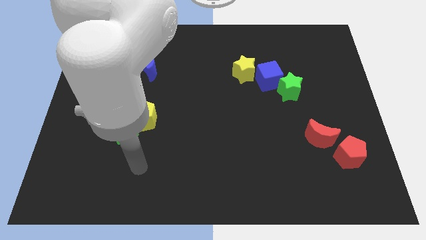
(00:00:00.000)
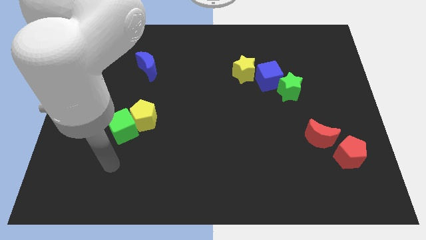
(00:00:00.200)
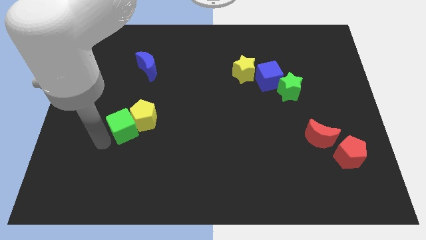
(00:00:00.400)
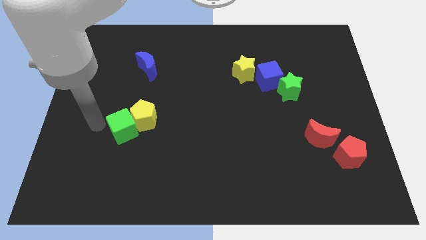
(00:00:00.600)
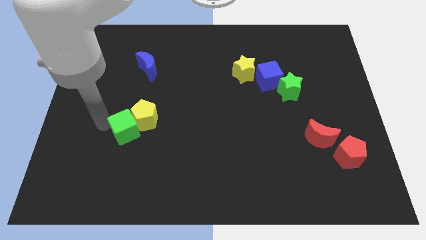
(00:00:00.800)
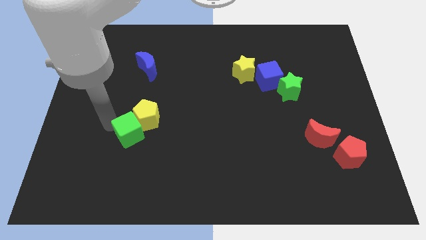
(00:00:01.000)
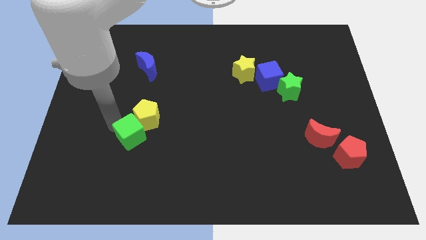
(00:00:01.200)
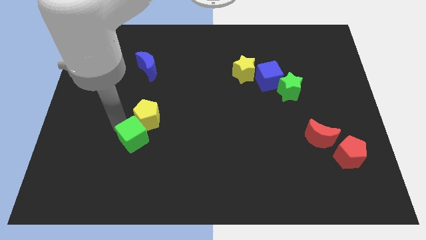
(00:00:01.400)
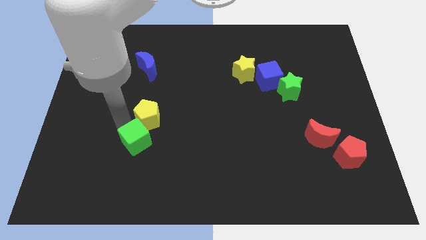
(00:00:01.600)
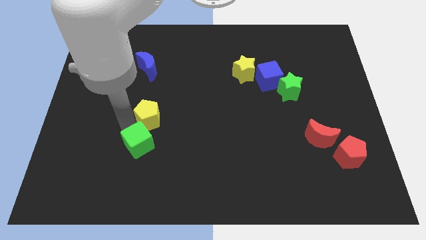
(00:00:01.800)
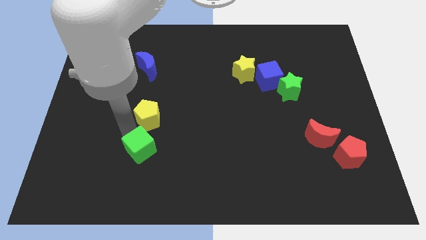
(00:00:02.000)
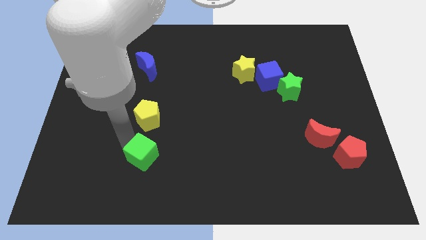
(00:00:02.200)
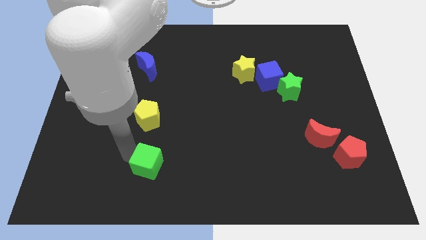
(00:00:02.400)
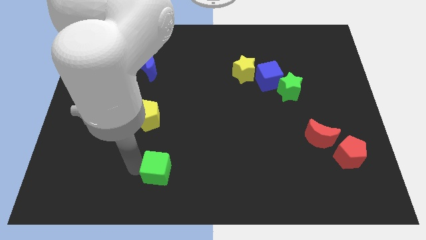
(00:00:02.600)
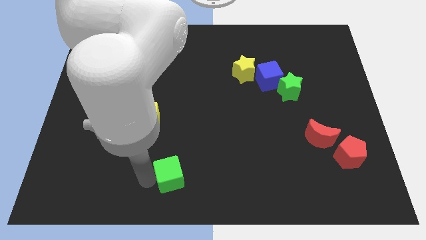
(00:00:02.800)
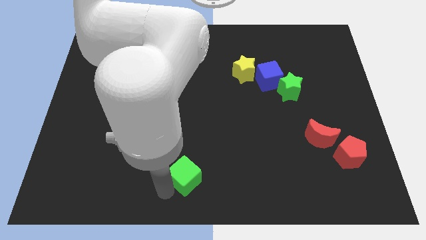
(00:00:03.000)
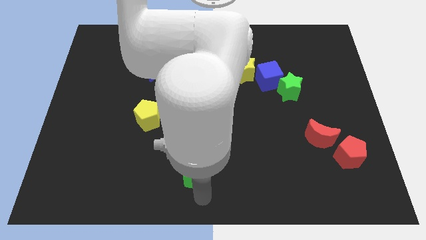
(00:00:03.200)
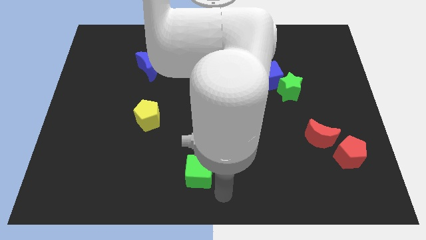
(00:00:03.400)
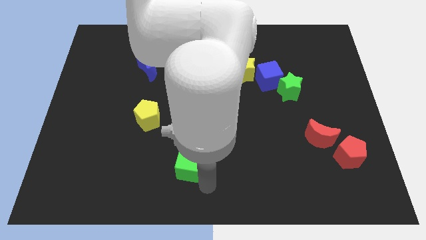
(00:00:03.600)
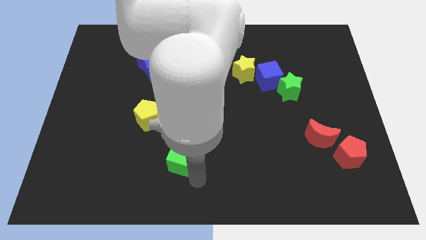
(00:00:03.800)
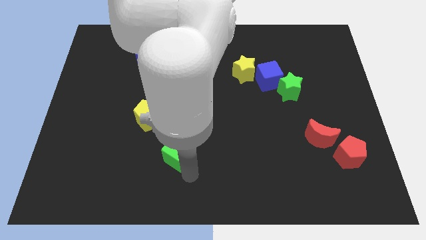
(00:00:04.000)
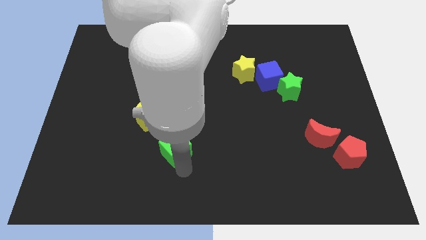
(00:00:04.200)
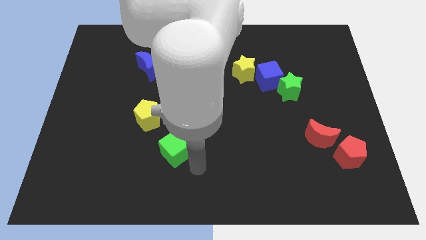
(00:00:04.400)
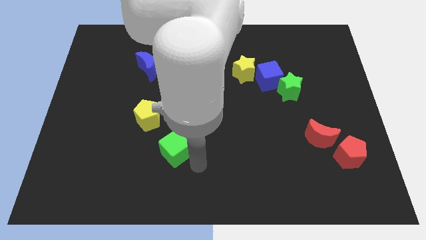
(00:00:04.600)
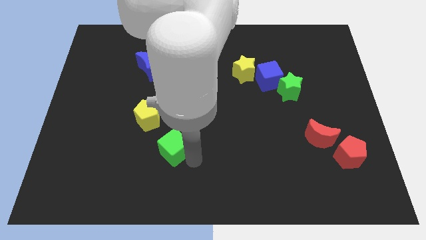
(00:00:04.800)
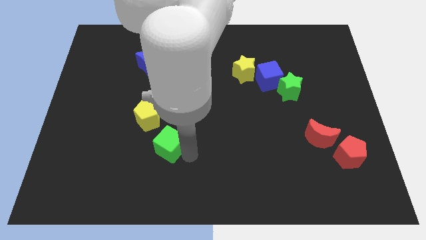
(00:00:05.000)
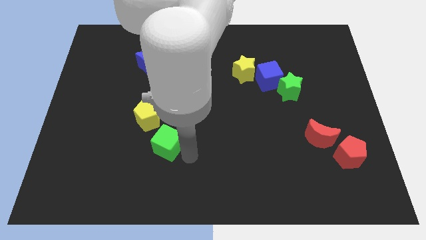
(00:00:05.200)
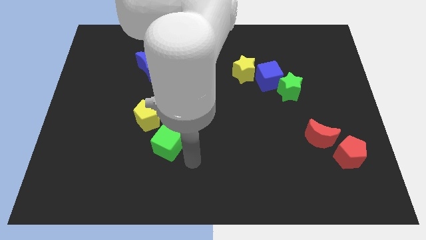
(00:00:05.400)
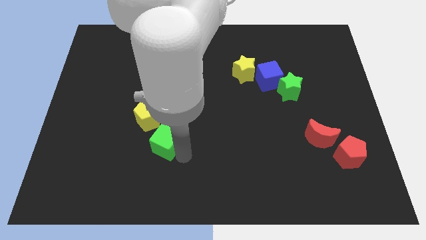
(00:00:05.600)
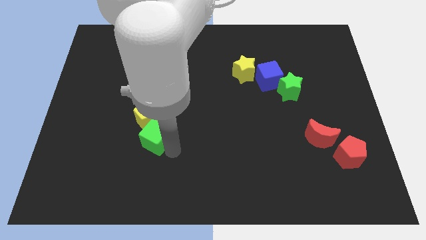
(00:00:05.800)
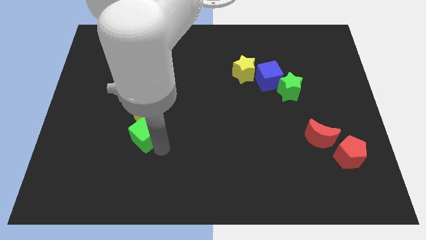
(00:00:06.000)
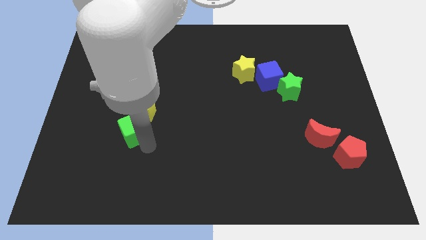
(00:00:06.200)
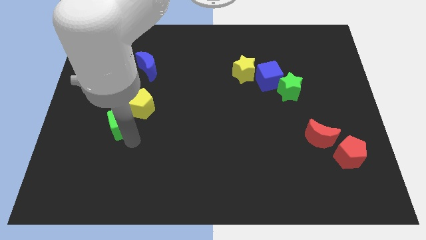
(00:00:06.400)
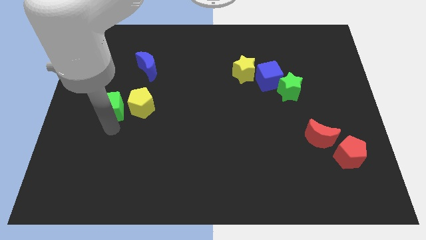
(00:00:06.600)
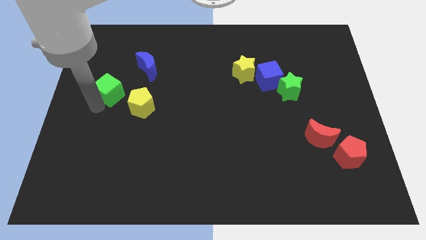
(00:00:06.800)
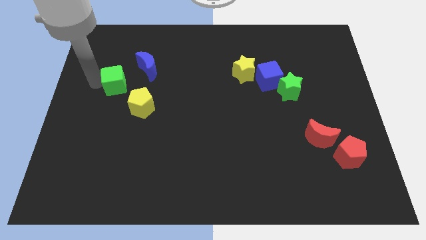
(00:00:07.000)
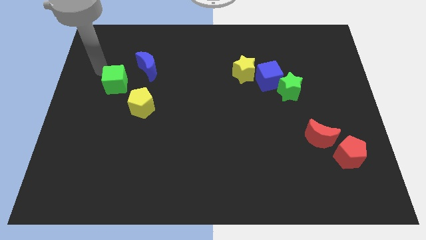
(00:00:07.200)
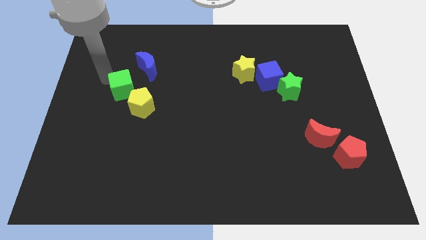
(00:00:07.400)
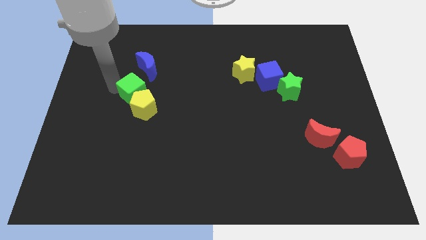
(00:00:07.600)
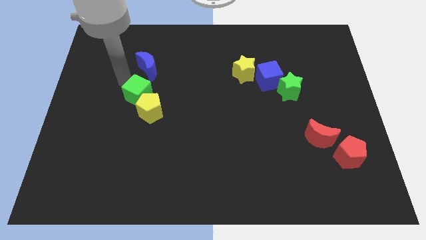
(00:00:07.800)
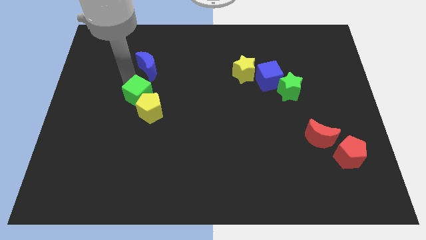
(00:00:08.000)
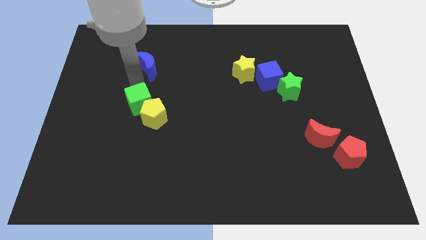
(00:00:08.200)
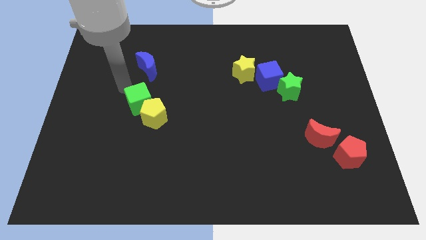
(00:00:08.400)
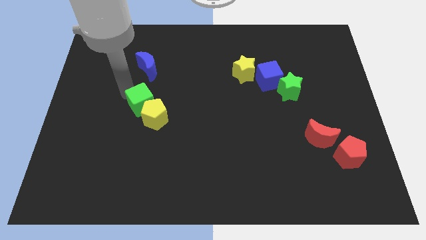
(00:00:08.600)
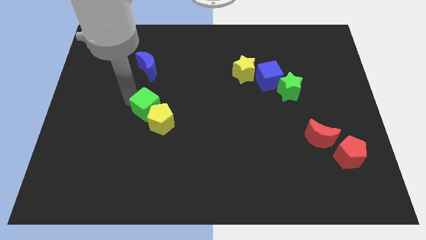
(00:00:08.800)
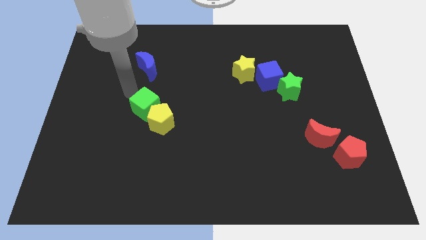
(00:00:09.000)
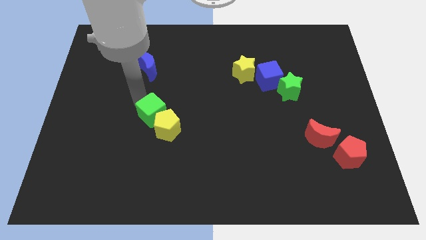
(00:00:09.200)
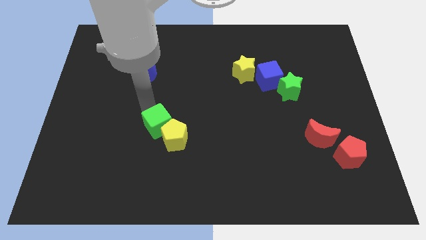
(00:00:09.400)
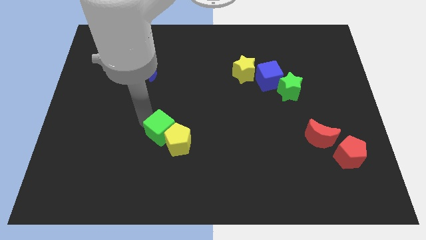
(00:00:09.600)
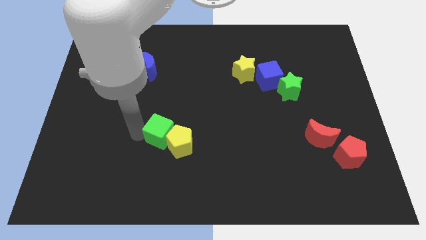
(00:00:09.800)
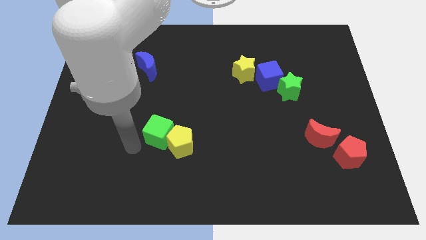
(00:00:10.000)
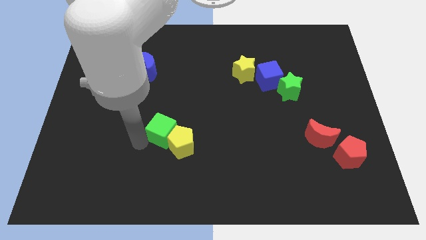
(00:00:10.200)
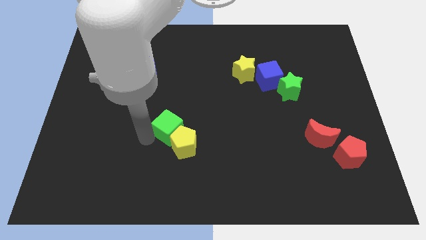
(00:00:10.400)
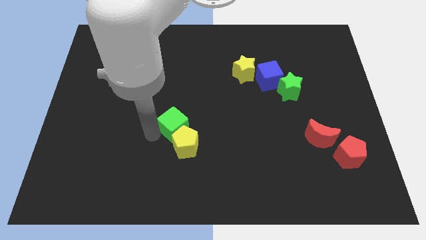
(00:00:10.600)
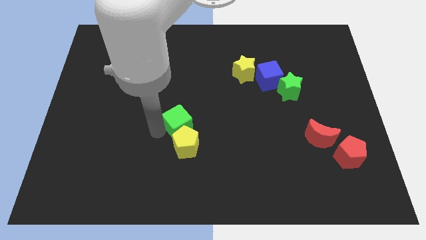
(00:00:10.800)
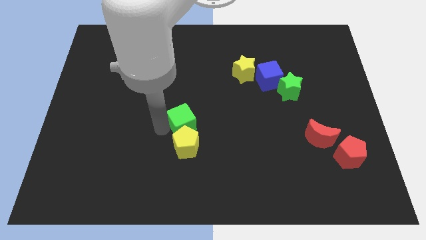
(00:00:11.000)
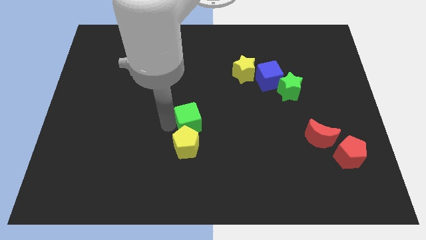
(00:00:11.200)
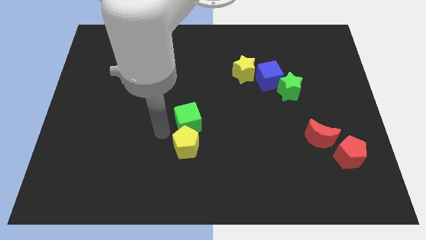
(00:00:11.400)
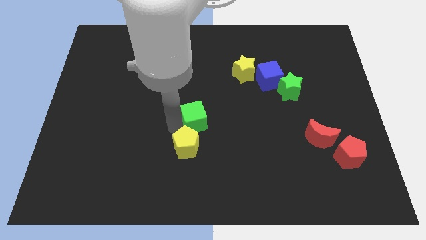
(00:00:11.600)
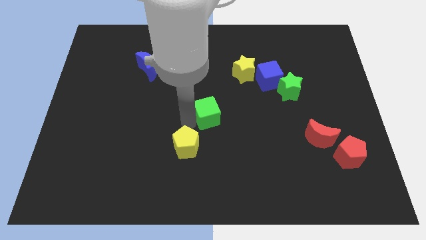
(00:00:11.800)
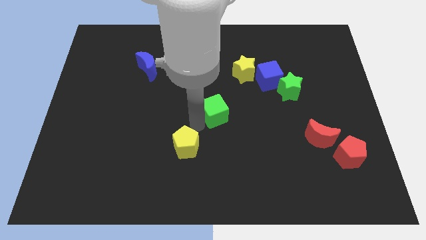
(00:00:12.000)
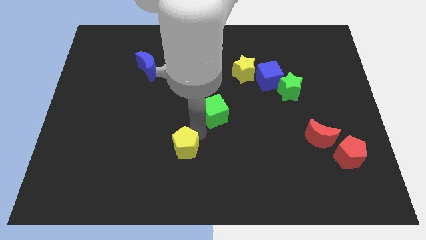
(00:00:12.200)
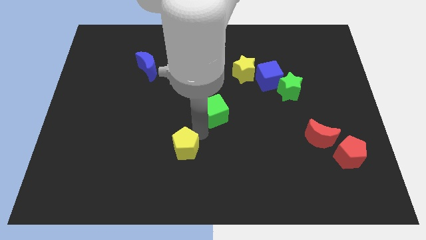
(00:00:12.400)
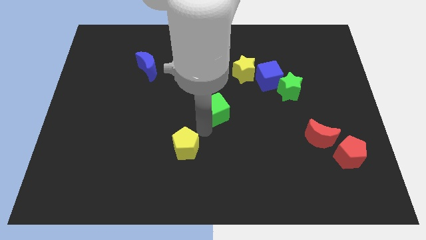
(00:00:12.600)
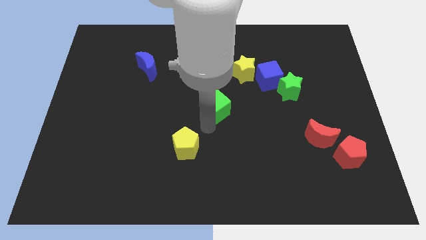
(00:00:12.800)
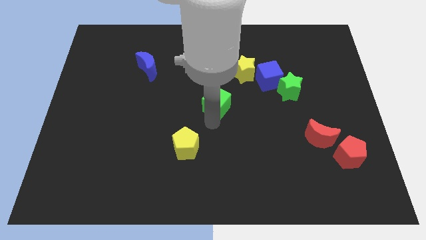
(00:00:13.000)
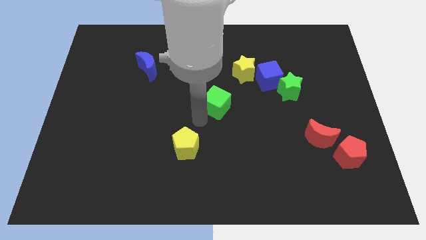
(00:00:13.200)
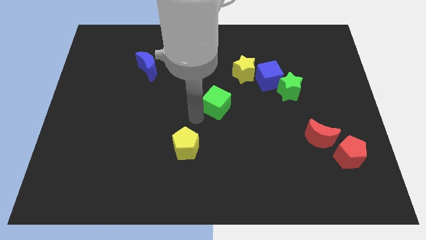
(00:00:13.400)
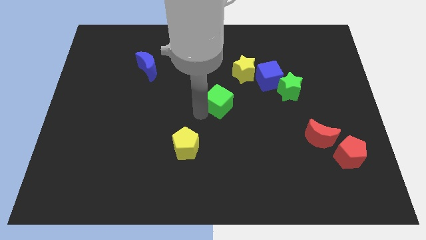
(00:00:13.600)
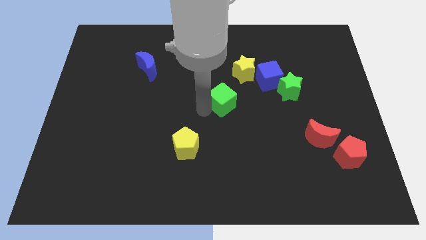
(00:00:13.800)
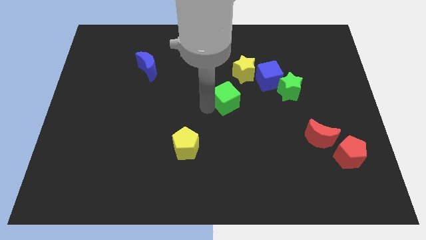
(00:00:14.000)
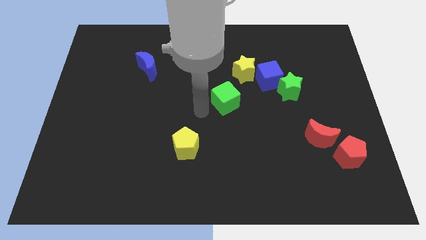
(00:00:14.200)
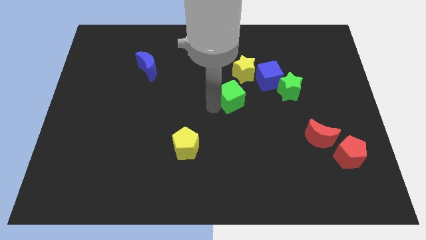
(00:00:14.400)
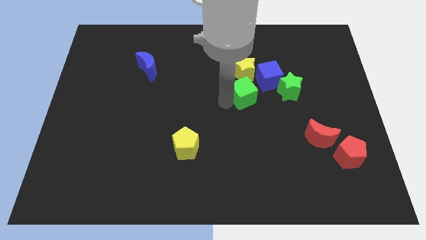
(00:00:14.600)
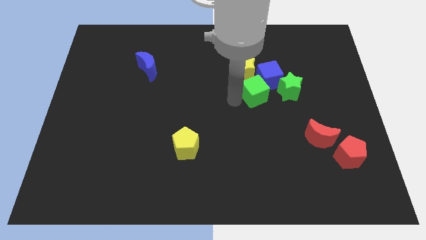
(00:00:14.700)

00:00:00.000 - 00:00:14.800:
push the green cube towards the blue cube
